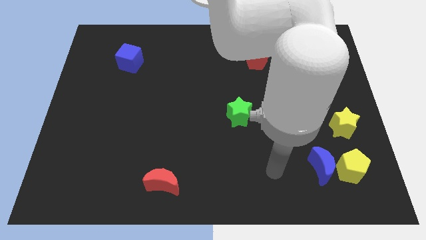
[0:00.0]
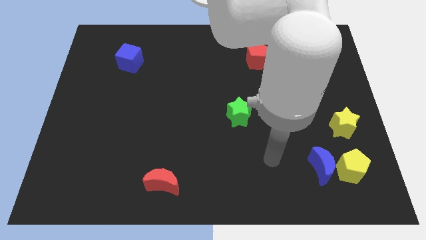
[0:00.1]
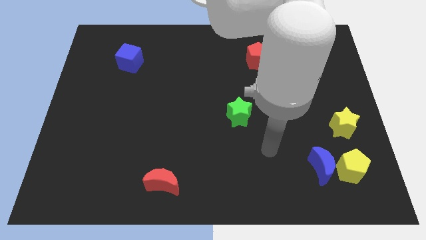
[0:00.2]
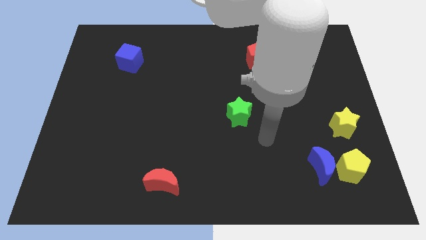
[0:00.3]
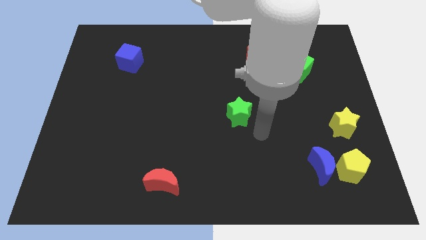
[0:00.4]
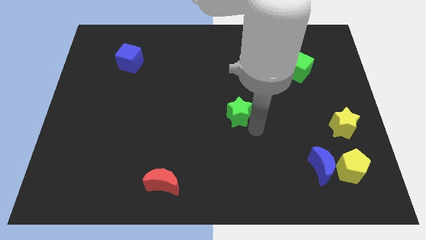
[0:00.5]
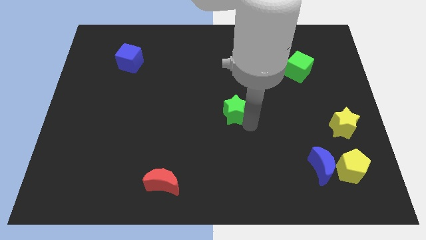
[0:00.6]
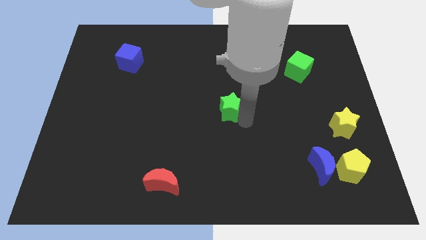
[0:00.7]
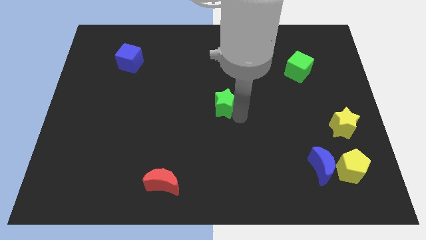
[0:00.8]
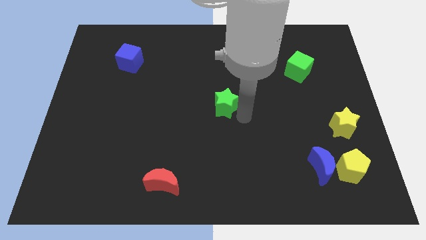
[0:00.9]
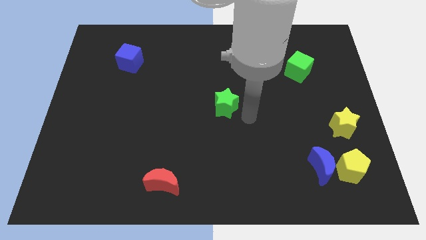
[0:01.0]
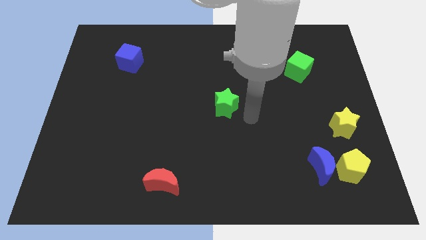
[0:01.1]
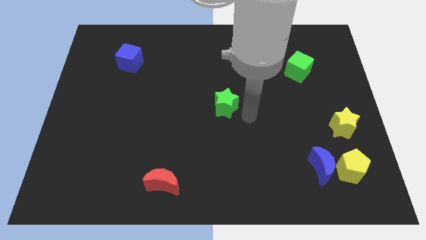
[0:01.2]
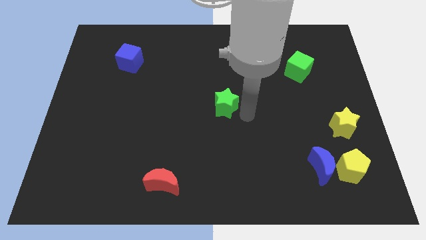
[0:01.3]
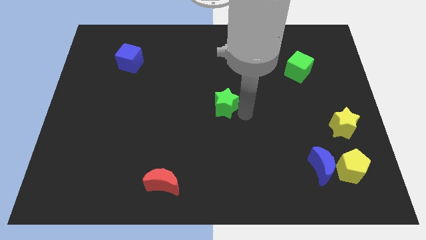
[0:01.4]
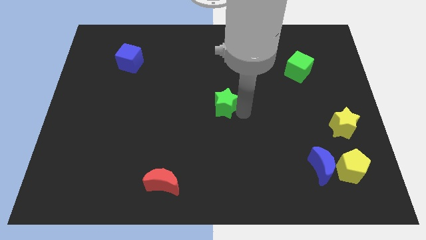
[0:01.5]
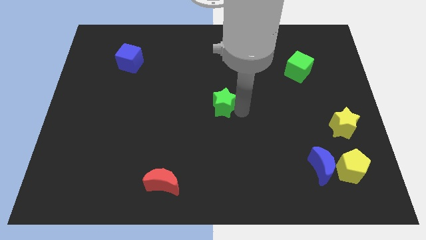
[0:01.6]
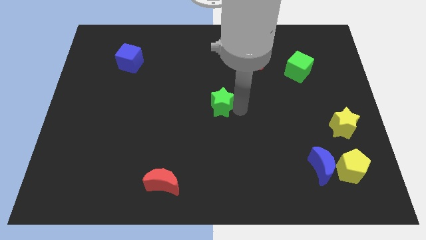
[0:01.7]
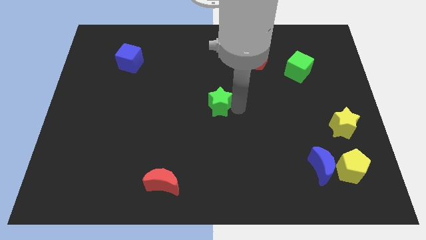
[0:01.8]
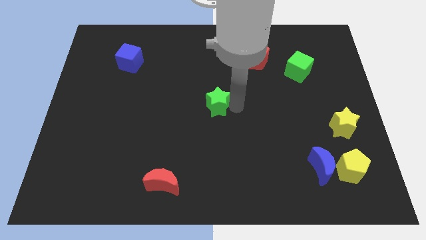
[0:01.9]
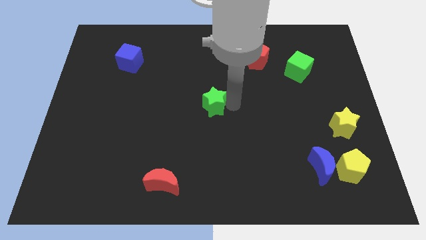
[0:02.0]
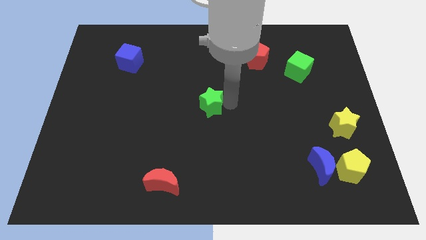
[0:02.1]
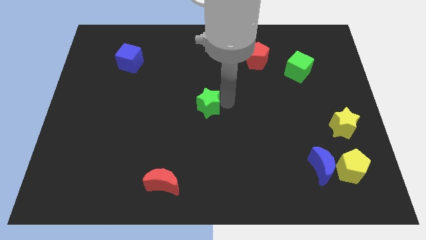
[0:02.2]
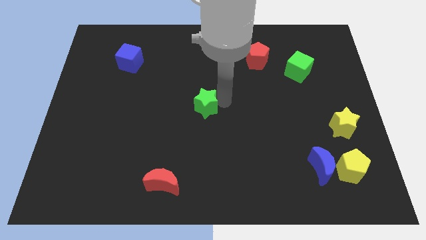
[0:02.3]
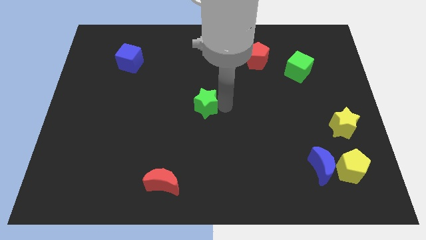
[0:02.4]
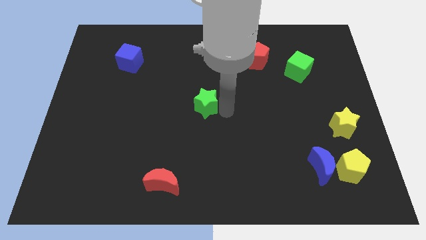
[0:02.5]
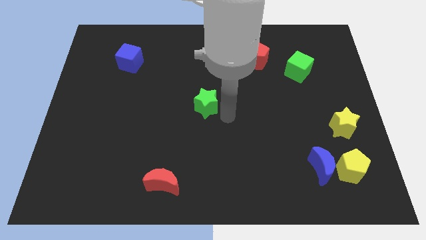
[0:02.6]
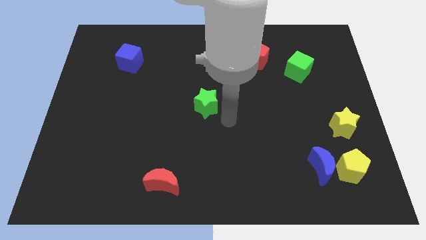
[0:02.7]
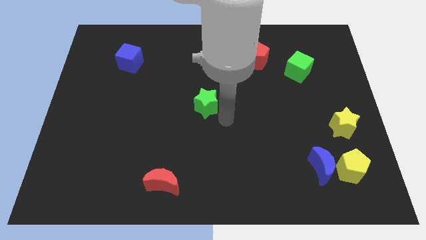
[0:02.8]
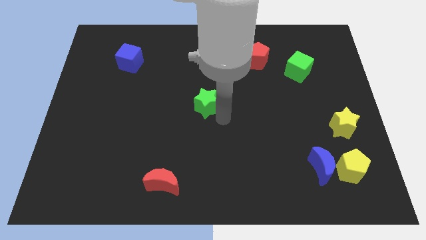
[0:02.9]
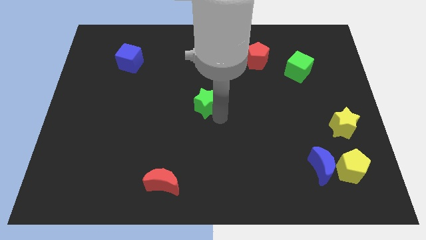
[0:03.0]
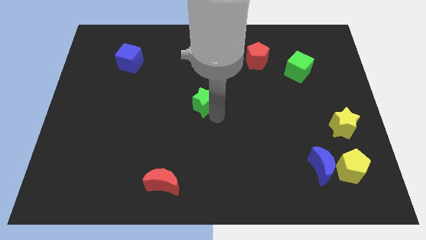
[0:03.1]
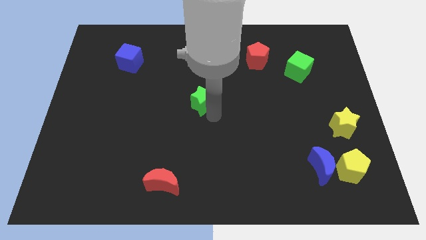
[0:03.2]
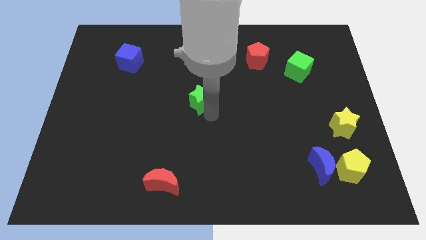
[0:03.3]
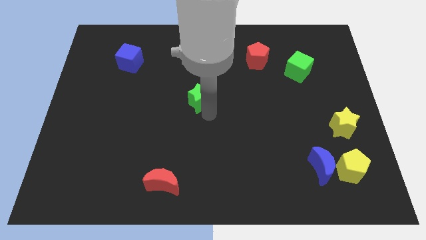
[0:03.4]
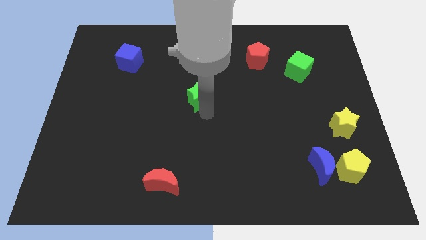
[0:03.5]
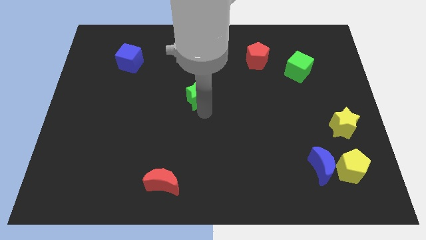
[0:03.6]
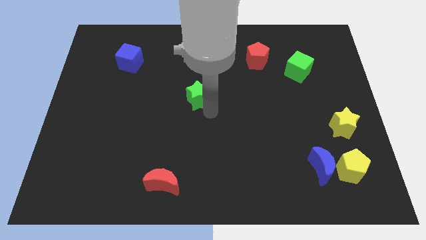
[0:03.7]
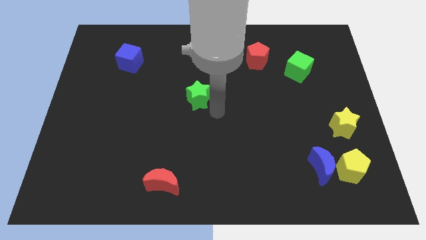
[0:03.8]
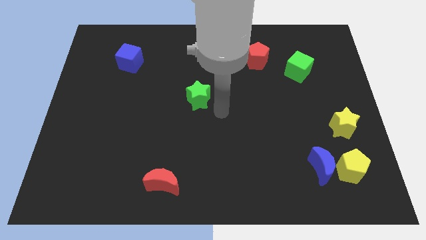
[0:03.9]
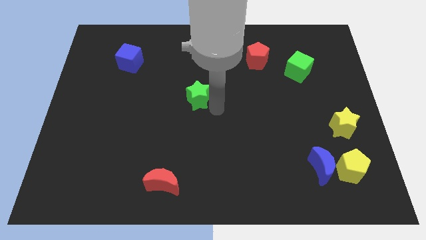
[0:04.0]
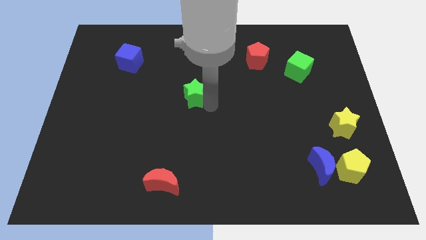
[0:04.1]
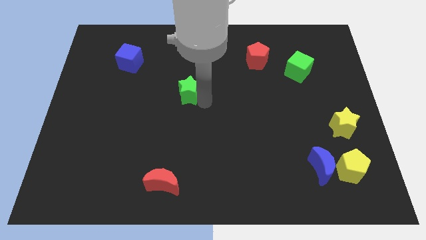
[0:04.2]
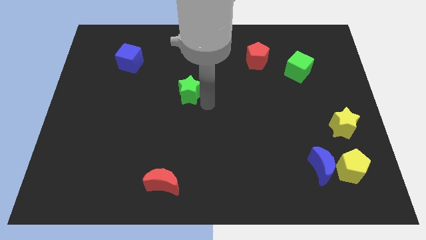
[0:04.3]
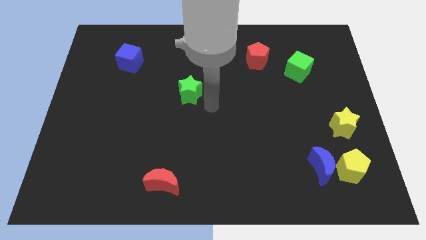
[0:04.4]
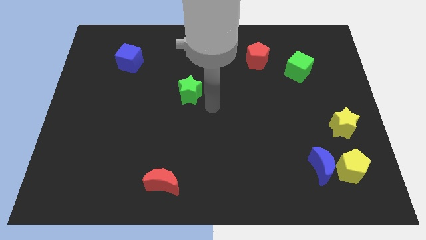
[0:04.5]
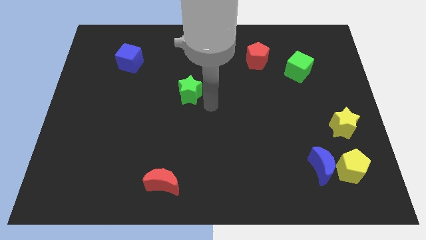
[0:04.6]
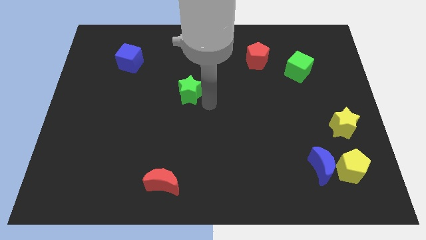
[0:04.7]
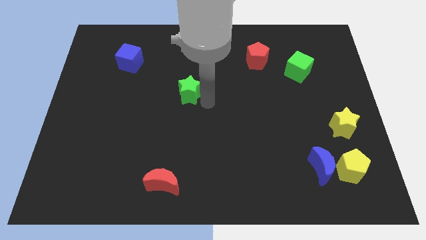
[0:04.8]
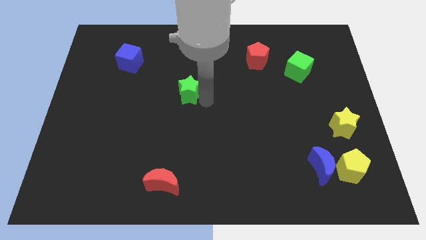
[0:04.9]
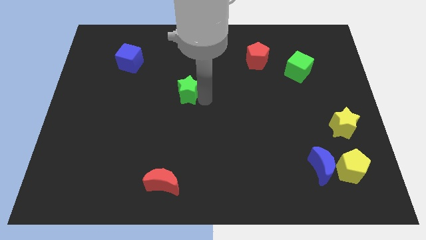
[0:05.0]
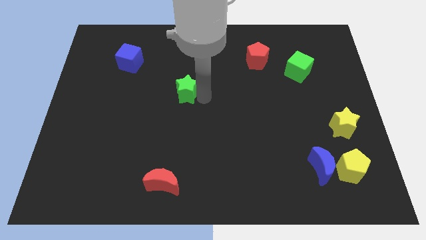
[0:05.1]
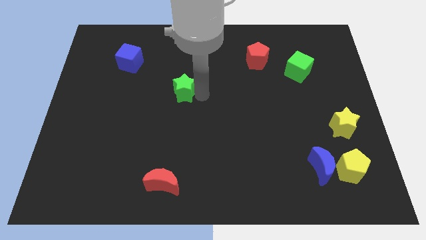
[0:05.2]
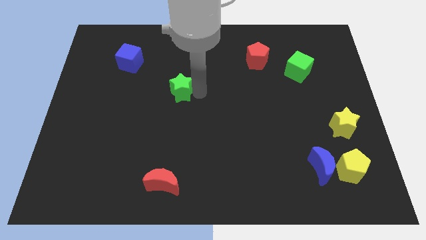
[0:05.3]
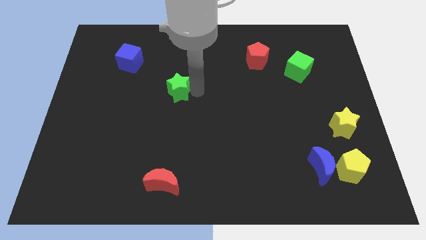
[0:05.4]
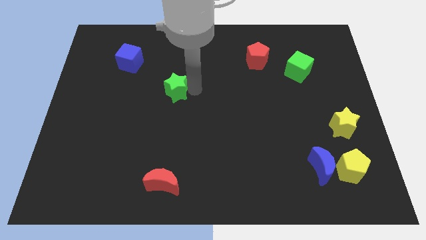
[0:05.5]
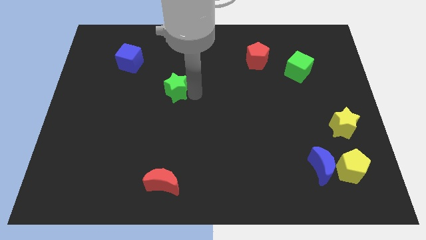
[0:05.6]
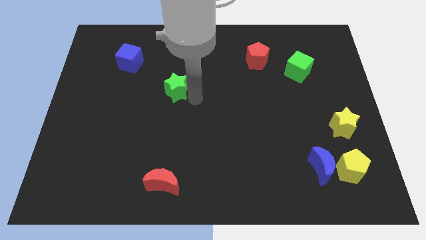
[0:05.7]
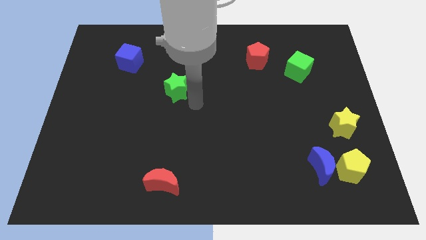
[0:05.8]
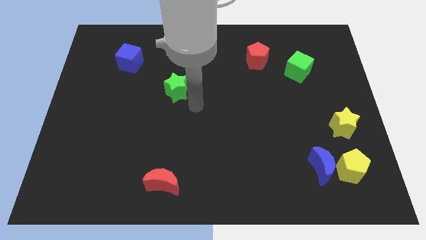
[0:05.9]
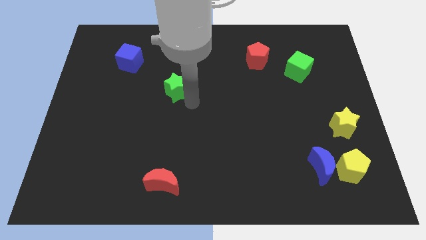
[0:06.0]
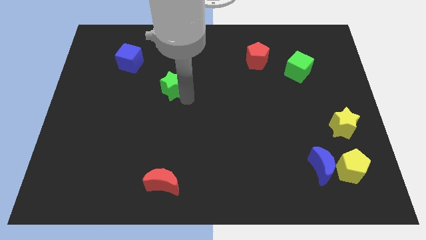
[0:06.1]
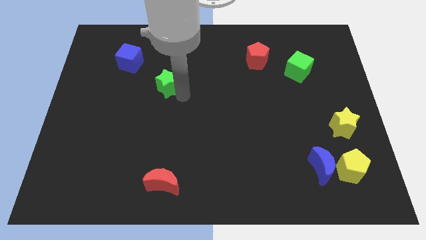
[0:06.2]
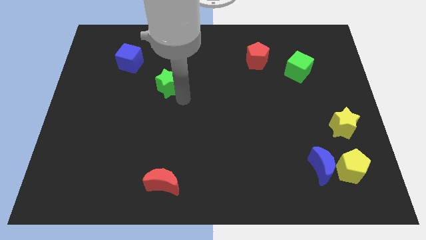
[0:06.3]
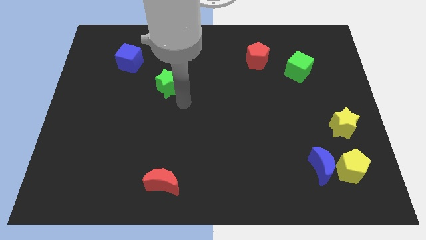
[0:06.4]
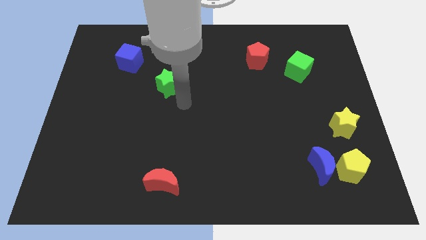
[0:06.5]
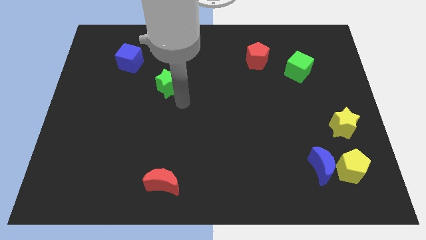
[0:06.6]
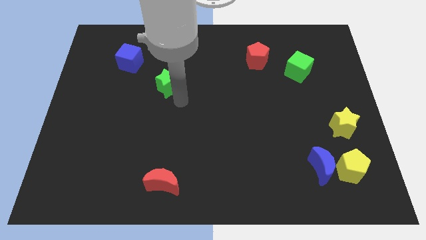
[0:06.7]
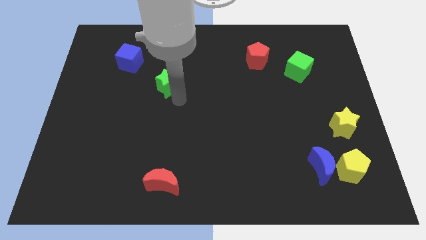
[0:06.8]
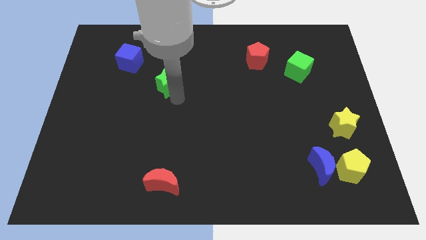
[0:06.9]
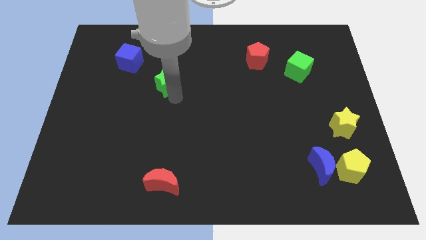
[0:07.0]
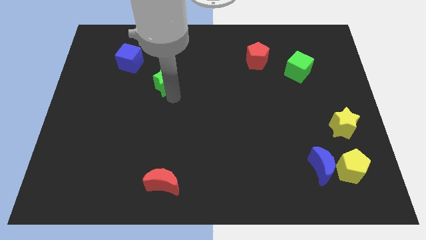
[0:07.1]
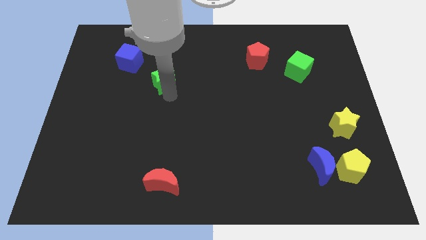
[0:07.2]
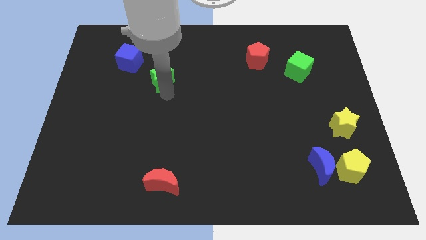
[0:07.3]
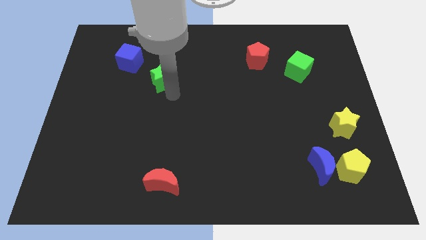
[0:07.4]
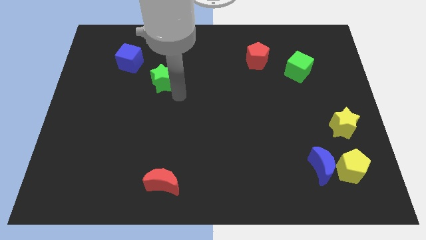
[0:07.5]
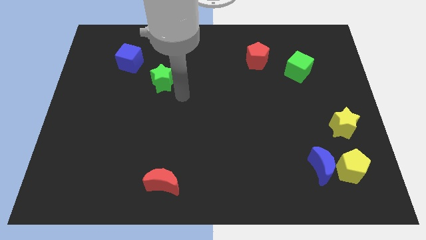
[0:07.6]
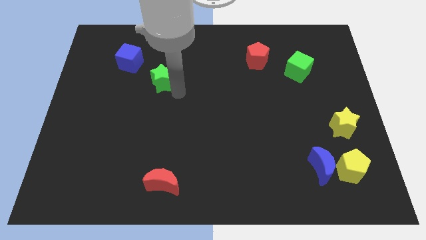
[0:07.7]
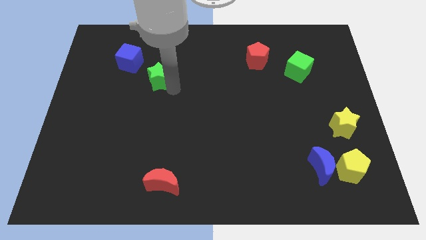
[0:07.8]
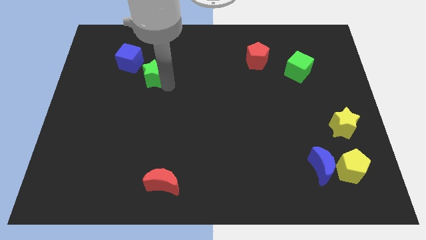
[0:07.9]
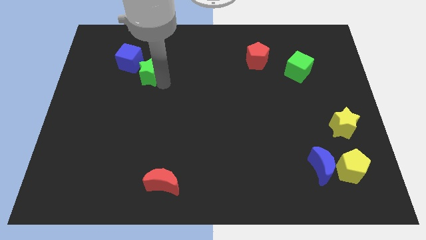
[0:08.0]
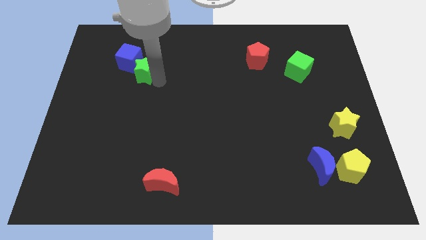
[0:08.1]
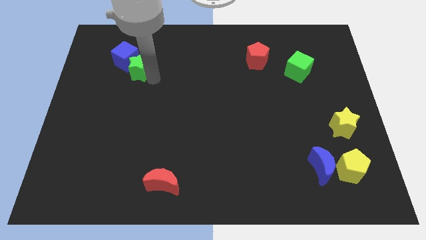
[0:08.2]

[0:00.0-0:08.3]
push the green star next to the blue cube
